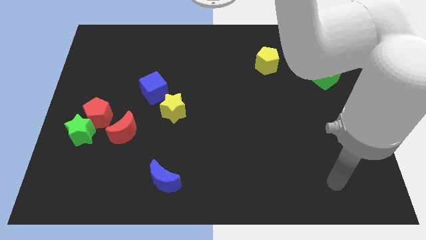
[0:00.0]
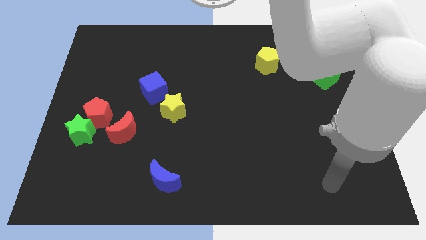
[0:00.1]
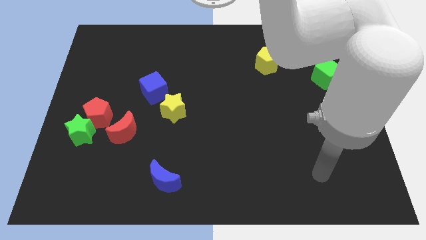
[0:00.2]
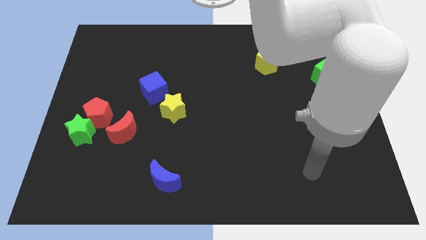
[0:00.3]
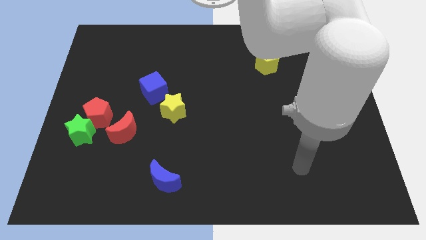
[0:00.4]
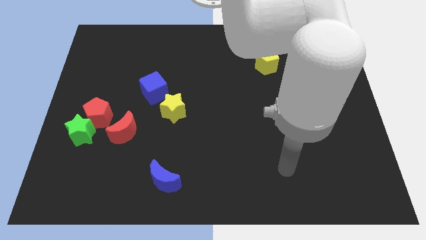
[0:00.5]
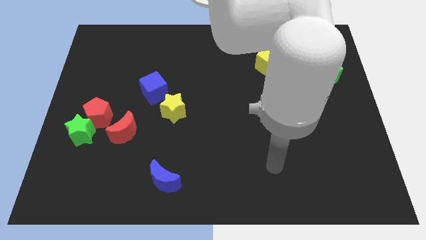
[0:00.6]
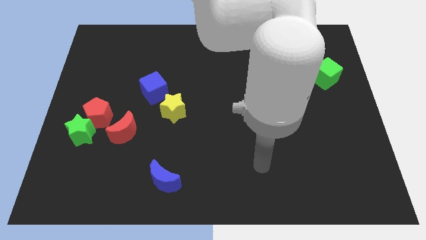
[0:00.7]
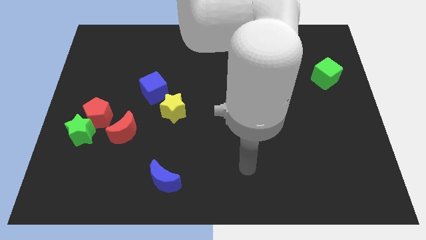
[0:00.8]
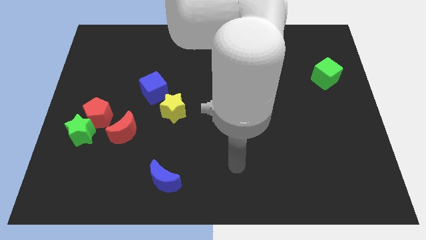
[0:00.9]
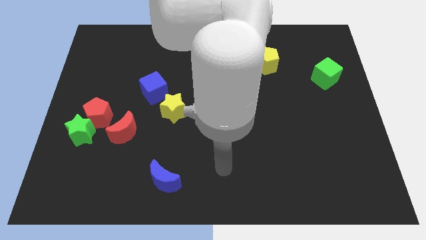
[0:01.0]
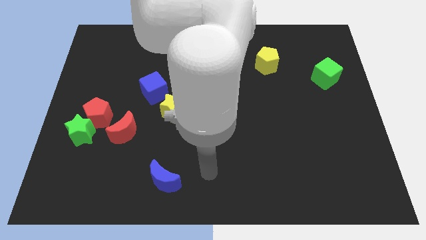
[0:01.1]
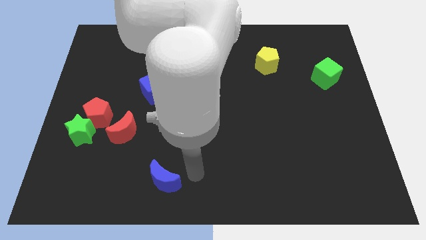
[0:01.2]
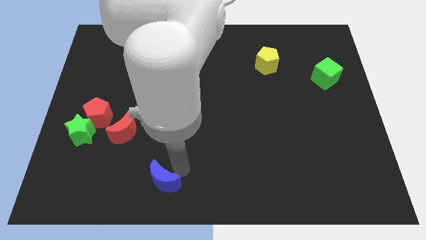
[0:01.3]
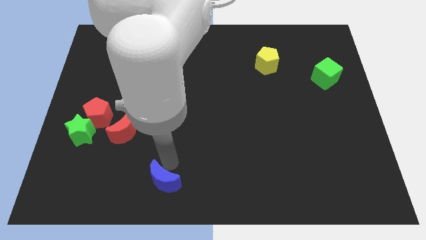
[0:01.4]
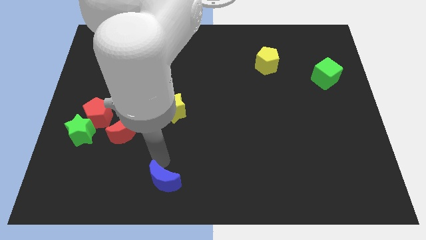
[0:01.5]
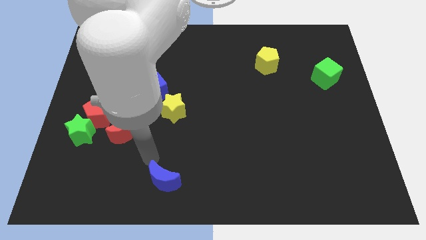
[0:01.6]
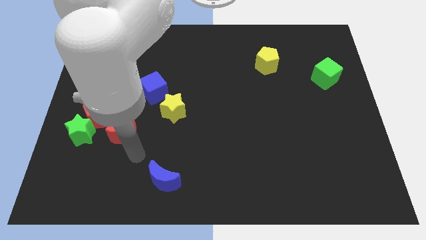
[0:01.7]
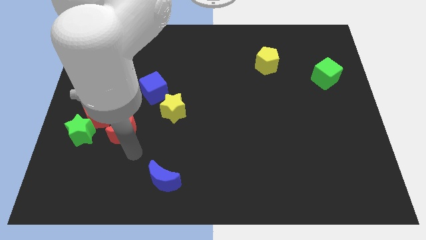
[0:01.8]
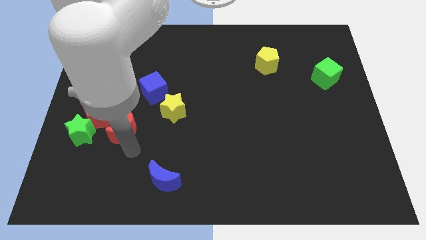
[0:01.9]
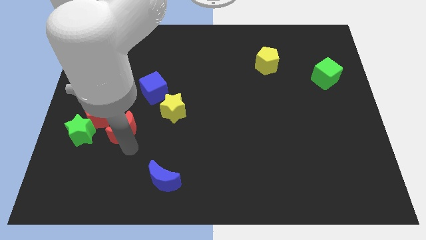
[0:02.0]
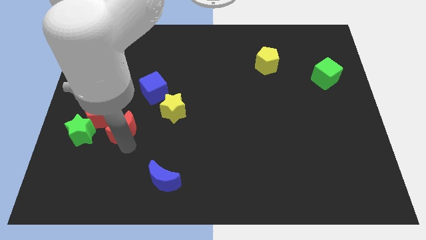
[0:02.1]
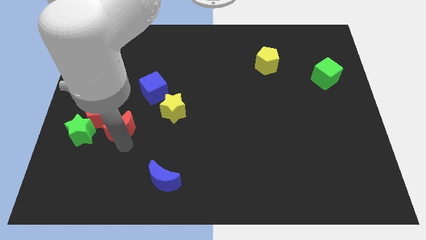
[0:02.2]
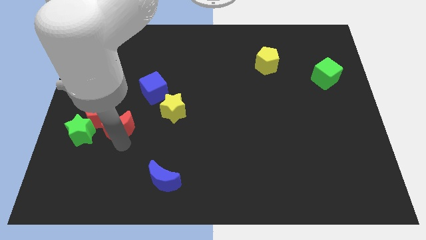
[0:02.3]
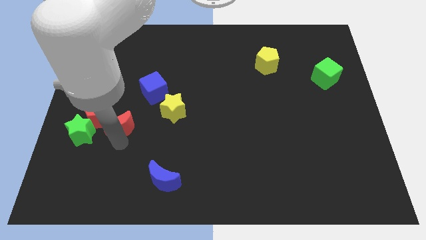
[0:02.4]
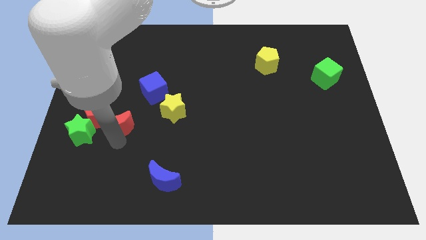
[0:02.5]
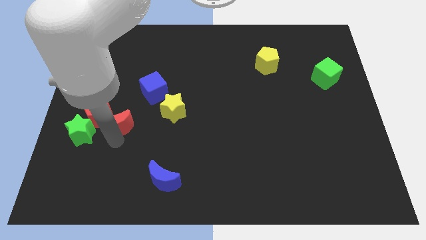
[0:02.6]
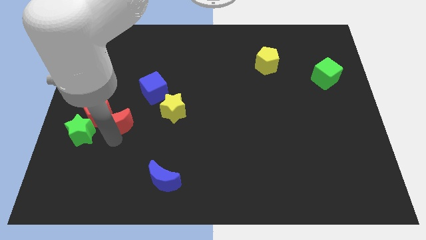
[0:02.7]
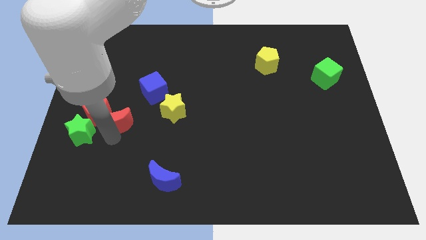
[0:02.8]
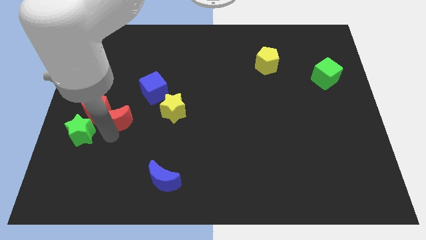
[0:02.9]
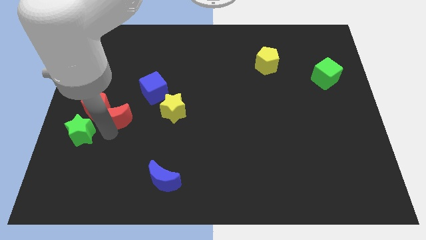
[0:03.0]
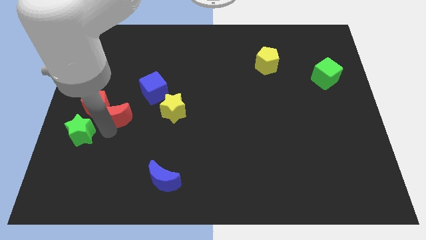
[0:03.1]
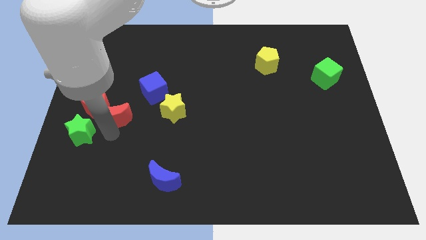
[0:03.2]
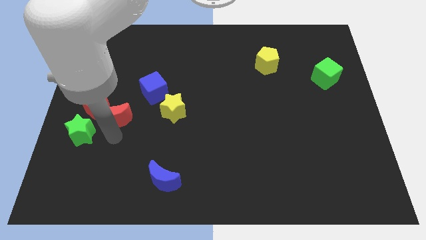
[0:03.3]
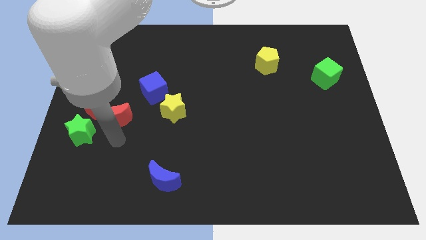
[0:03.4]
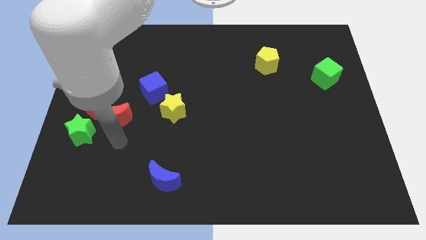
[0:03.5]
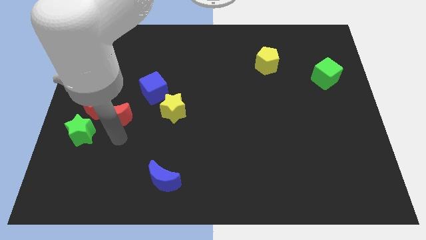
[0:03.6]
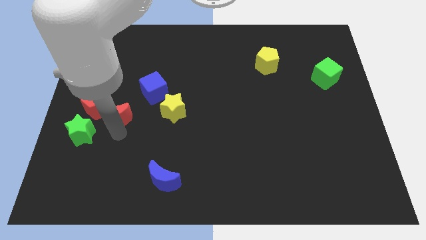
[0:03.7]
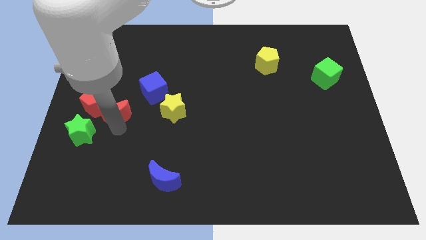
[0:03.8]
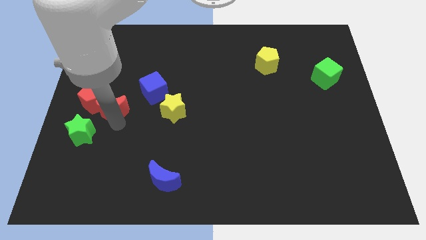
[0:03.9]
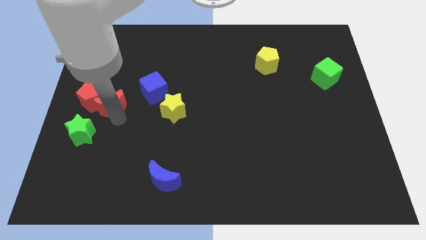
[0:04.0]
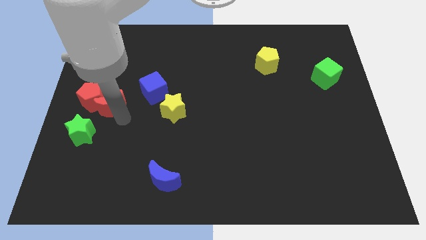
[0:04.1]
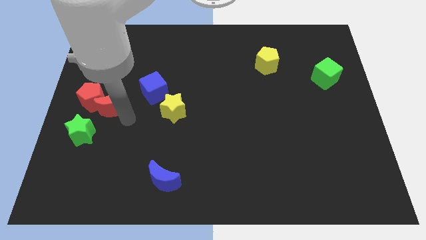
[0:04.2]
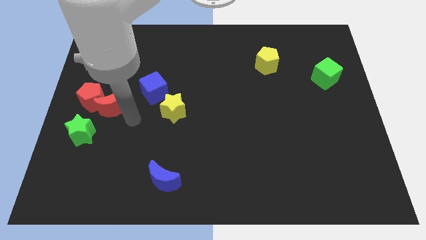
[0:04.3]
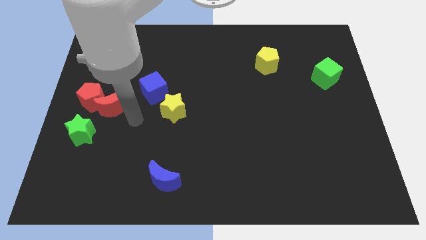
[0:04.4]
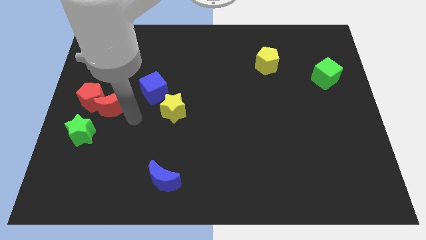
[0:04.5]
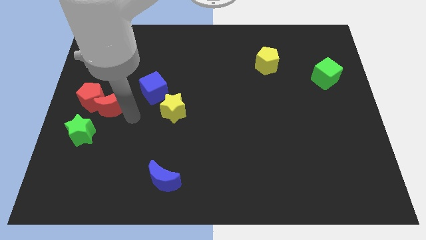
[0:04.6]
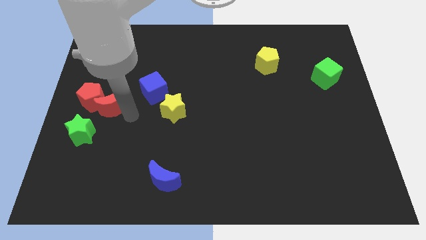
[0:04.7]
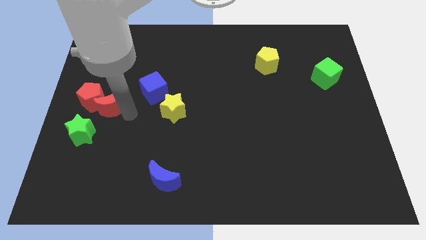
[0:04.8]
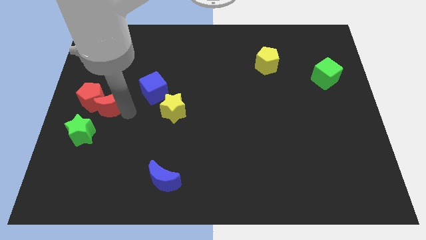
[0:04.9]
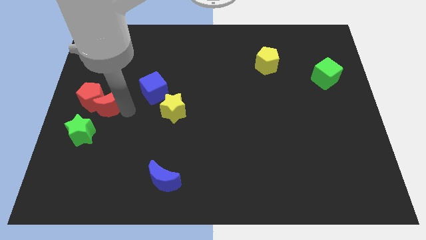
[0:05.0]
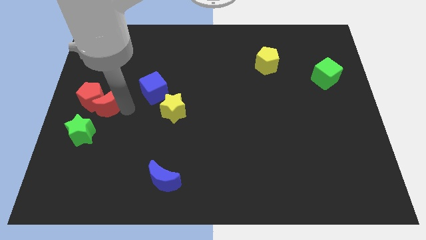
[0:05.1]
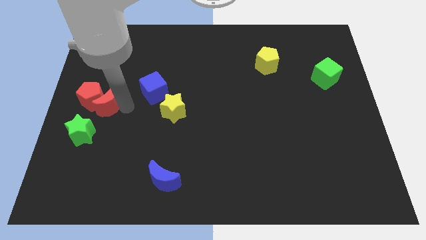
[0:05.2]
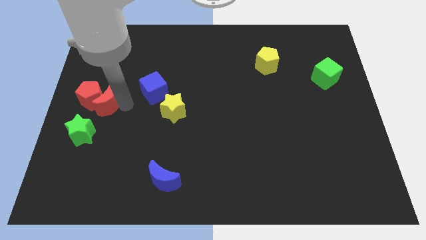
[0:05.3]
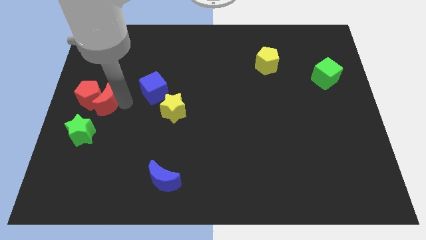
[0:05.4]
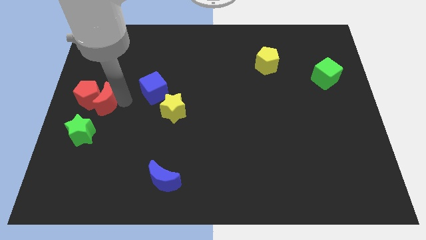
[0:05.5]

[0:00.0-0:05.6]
push the red moon to the left side

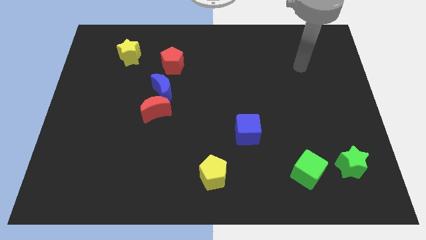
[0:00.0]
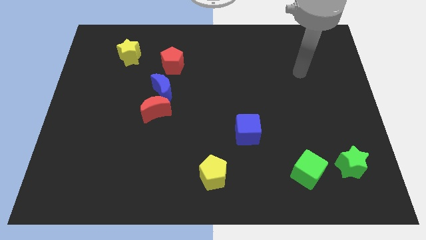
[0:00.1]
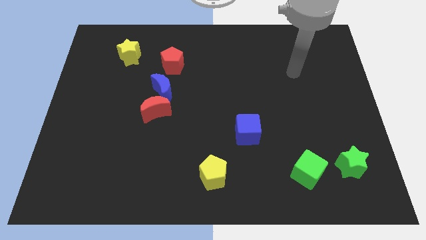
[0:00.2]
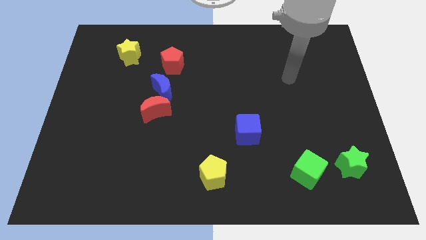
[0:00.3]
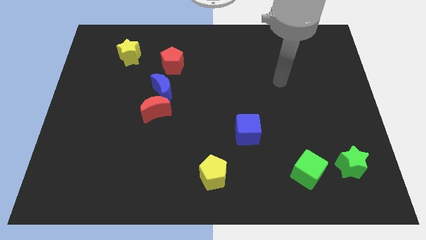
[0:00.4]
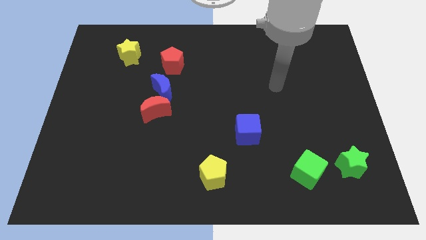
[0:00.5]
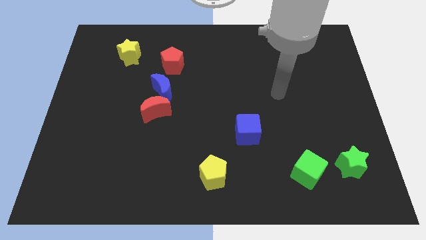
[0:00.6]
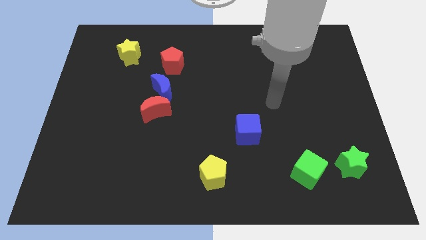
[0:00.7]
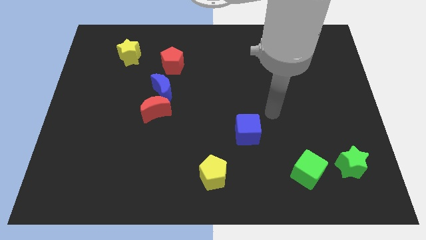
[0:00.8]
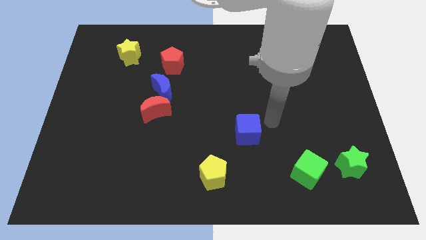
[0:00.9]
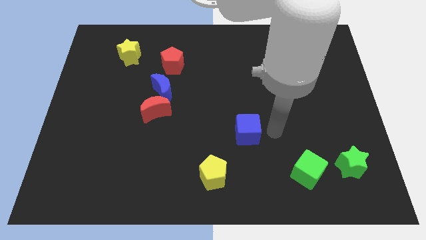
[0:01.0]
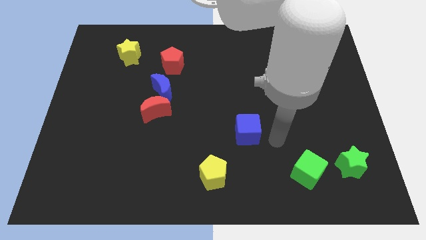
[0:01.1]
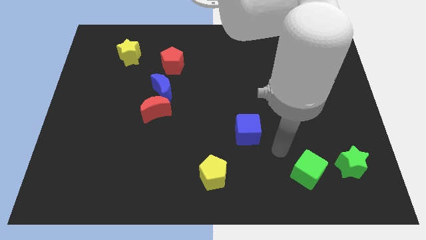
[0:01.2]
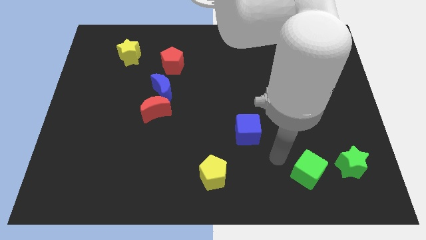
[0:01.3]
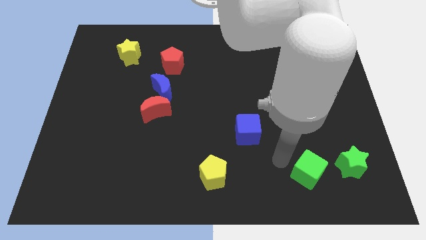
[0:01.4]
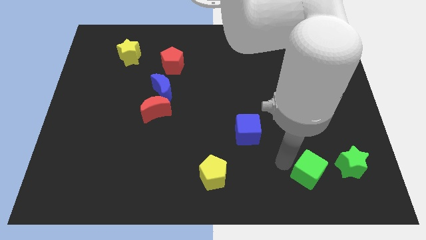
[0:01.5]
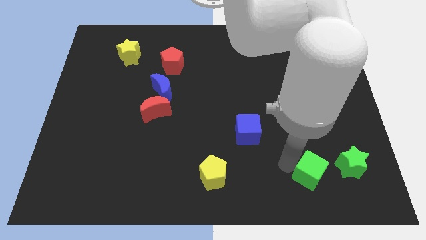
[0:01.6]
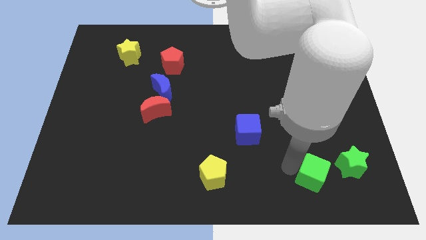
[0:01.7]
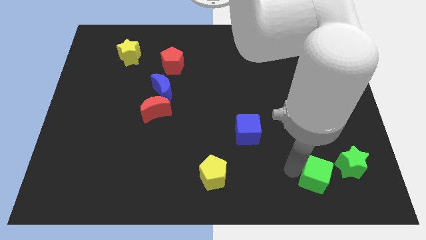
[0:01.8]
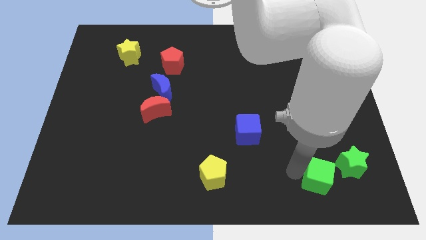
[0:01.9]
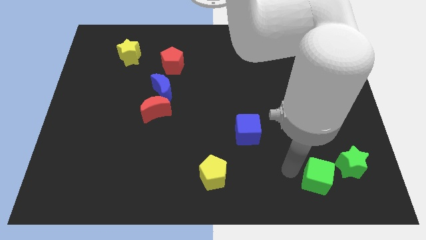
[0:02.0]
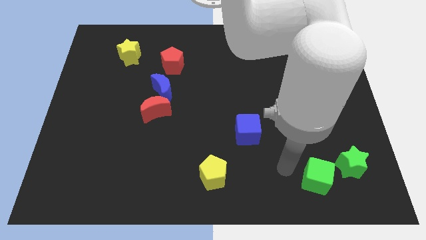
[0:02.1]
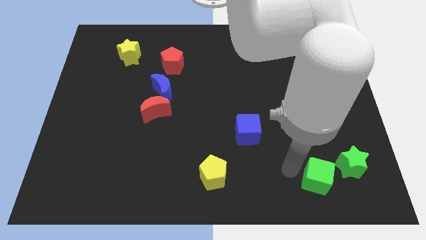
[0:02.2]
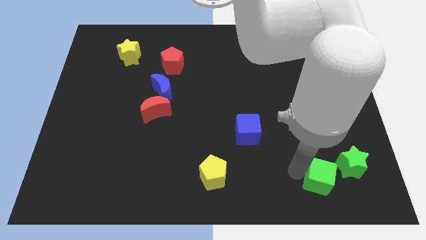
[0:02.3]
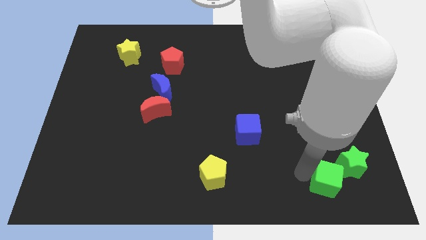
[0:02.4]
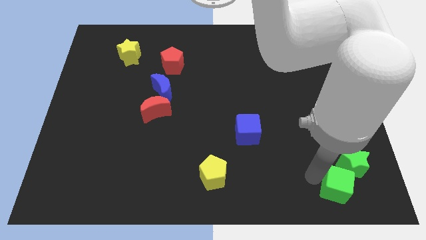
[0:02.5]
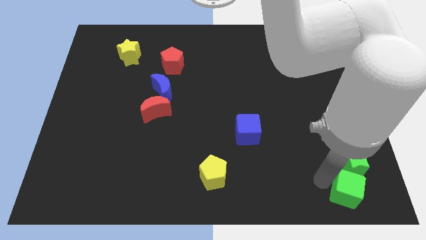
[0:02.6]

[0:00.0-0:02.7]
put the green cube to the lower right corner
